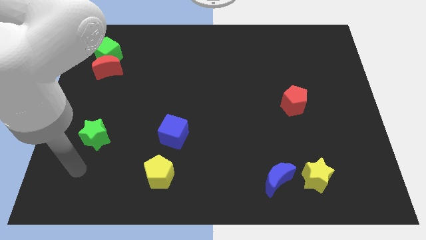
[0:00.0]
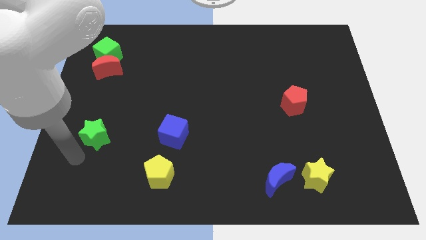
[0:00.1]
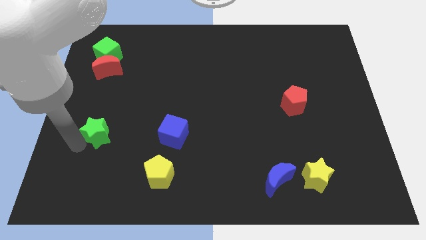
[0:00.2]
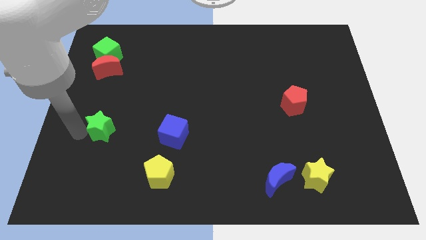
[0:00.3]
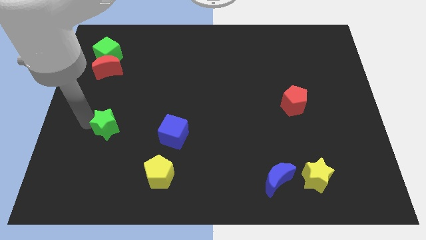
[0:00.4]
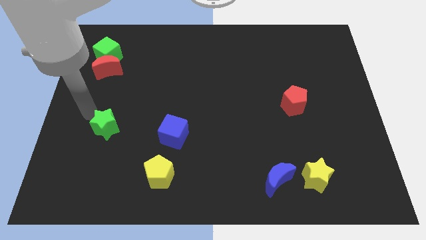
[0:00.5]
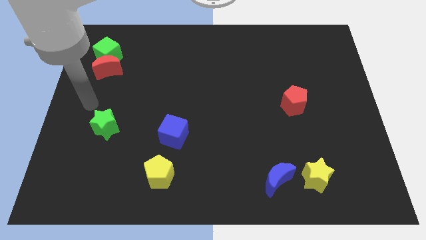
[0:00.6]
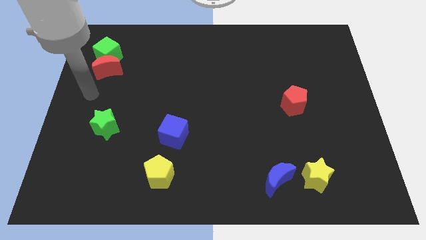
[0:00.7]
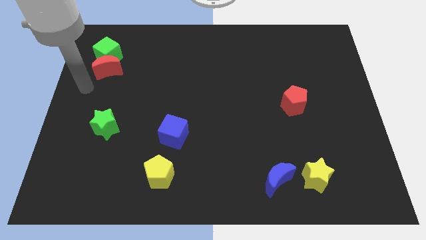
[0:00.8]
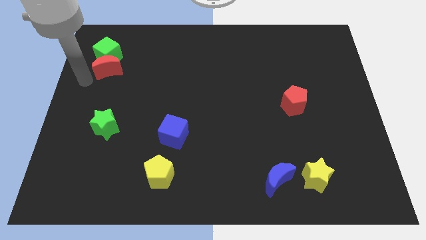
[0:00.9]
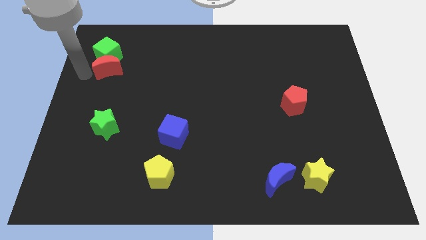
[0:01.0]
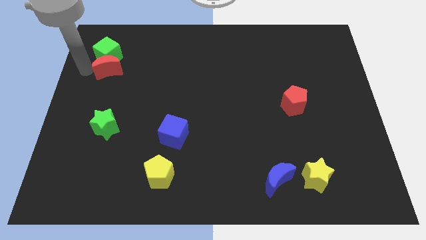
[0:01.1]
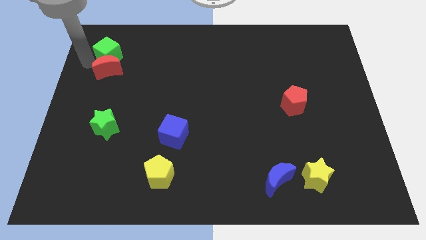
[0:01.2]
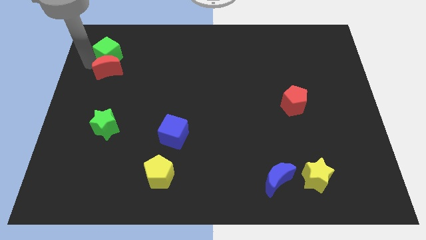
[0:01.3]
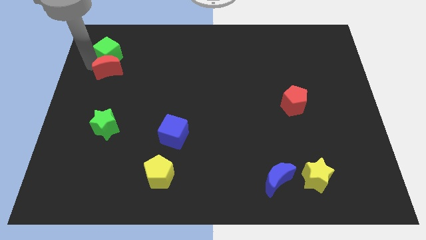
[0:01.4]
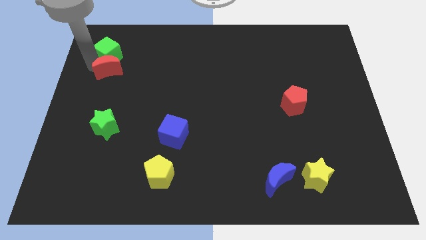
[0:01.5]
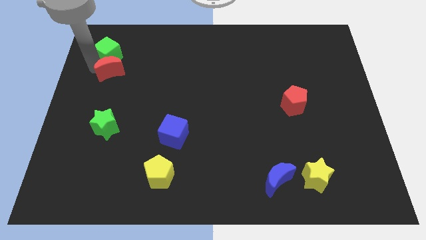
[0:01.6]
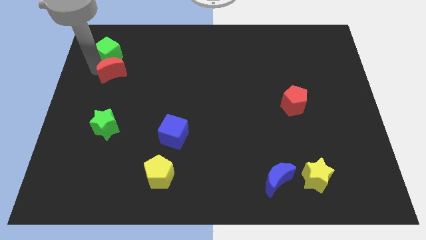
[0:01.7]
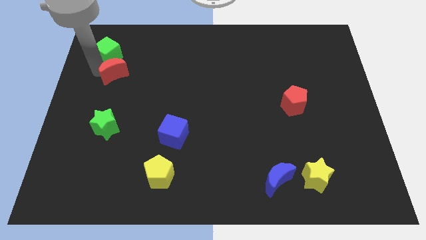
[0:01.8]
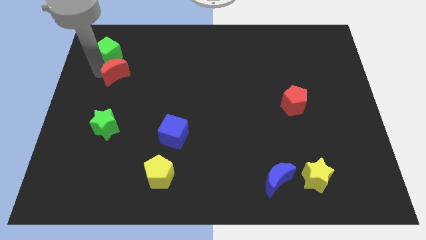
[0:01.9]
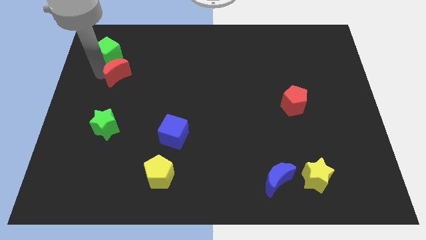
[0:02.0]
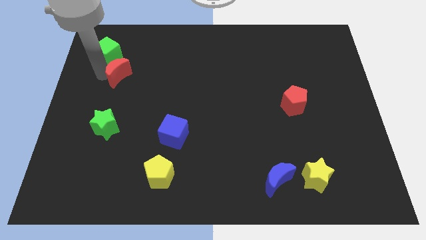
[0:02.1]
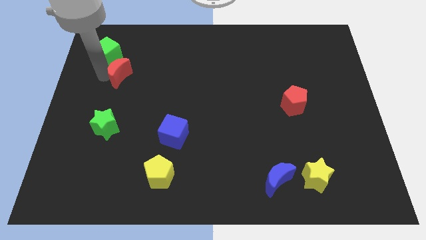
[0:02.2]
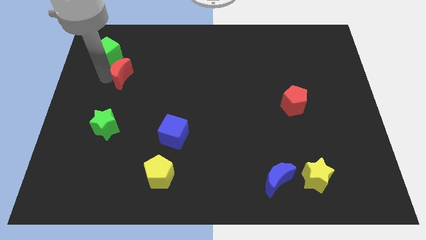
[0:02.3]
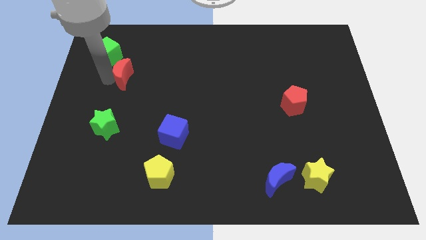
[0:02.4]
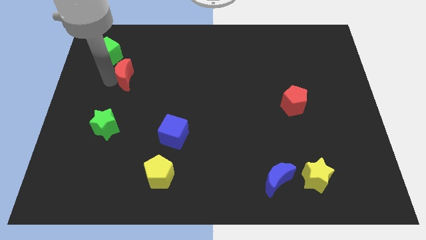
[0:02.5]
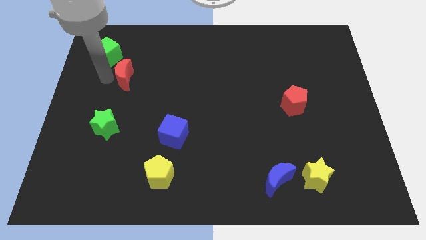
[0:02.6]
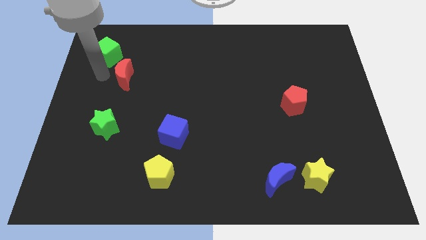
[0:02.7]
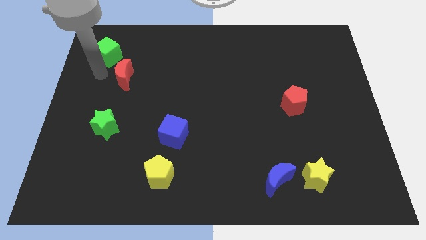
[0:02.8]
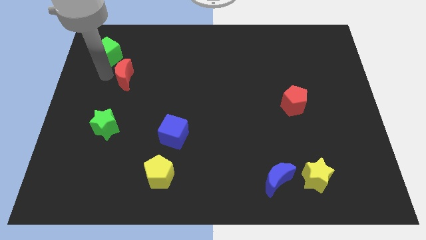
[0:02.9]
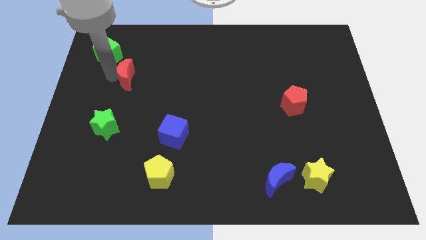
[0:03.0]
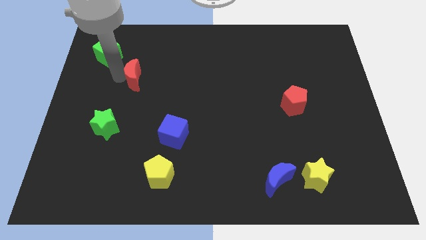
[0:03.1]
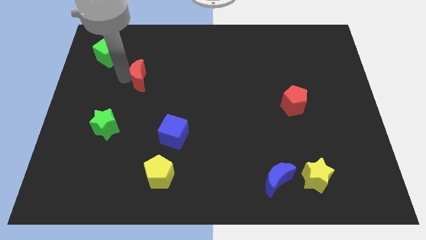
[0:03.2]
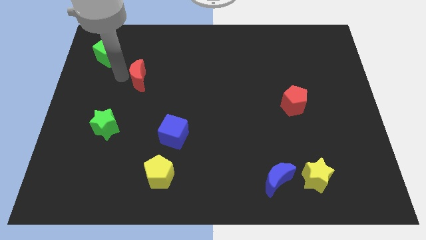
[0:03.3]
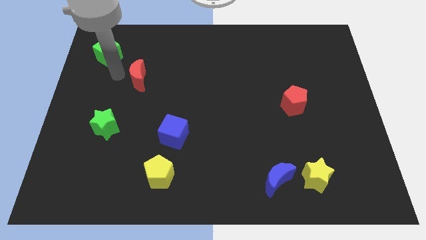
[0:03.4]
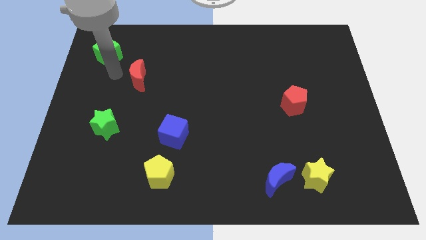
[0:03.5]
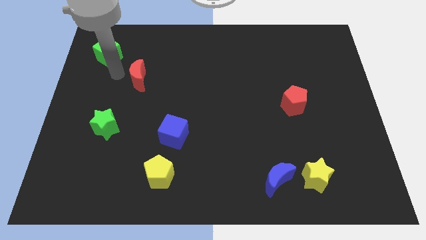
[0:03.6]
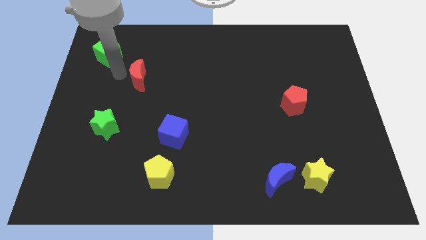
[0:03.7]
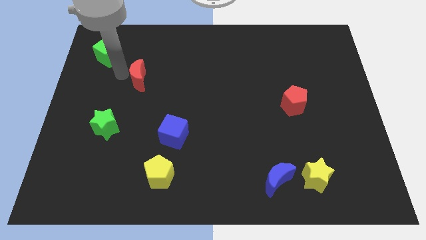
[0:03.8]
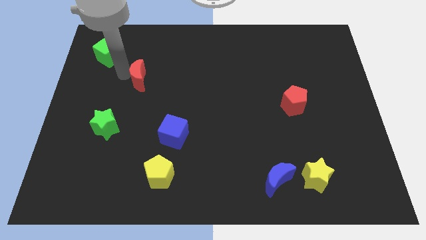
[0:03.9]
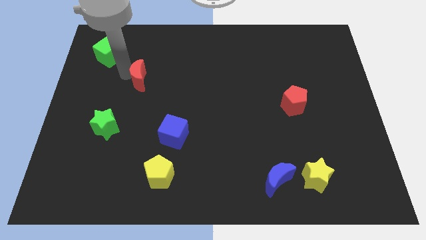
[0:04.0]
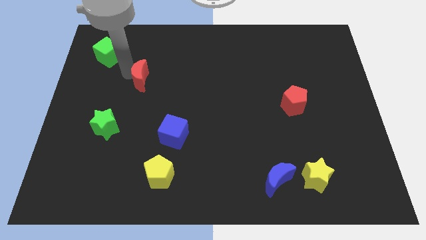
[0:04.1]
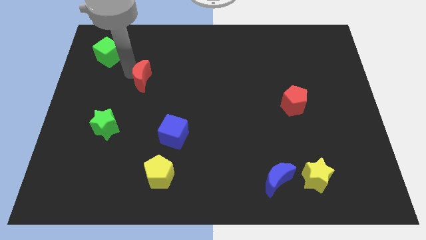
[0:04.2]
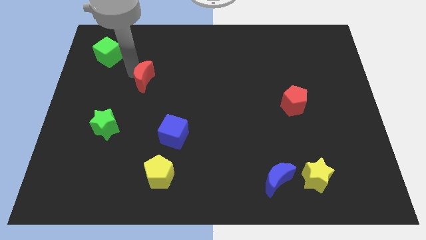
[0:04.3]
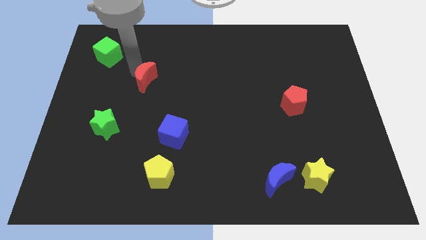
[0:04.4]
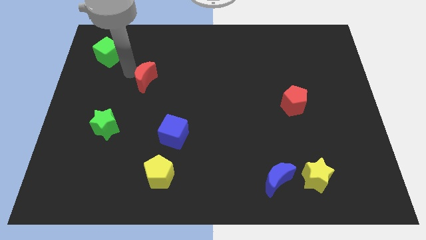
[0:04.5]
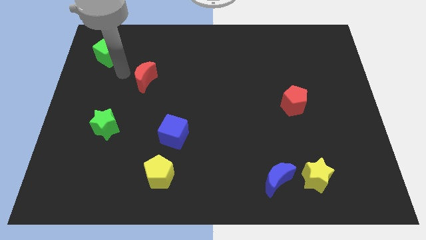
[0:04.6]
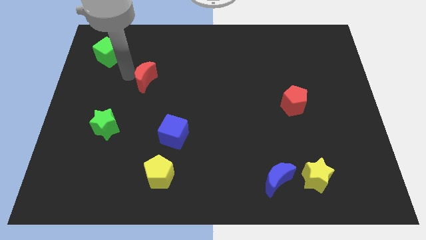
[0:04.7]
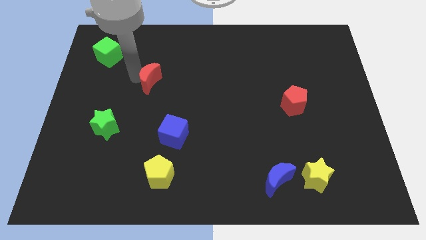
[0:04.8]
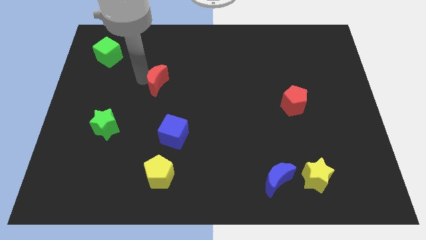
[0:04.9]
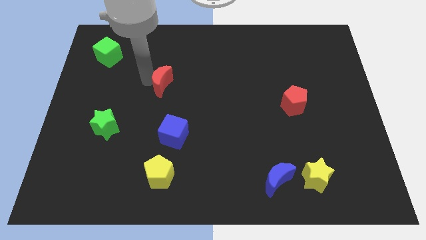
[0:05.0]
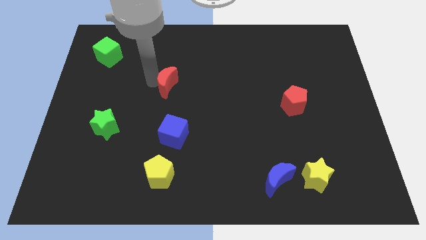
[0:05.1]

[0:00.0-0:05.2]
push the red moon to the center

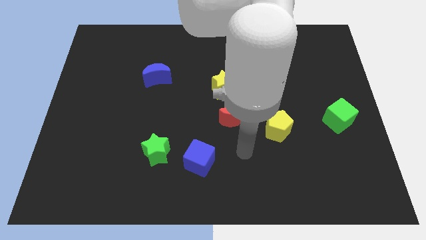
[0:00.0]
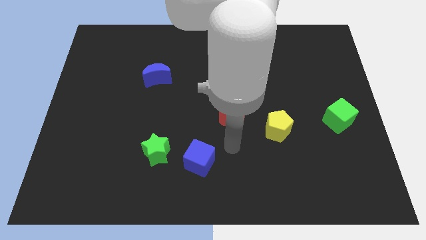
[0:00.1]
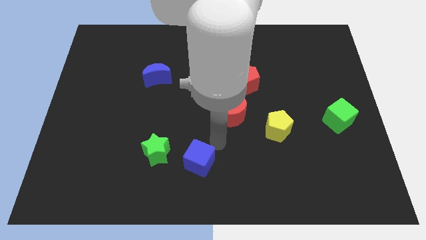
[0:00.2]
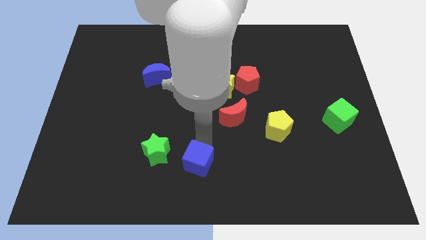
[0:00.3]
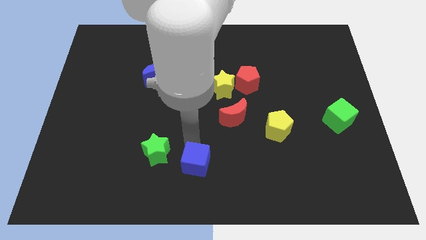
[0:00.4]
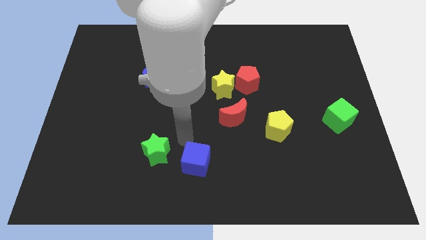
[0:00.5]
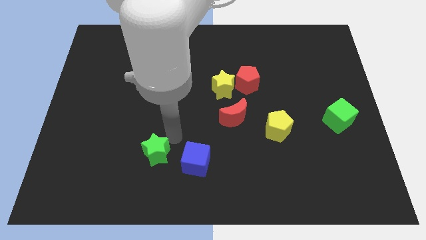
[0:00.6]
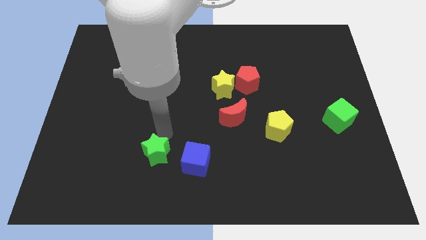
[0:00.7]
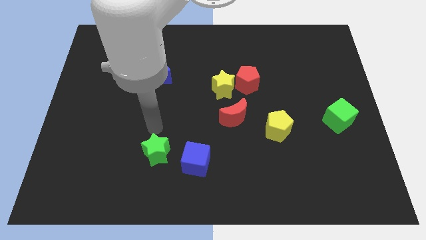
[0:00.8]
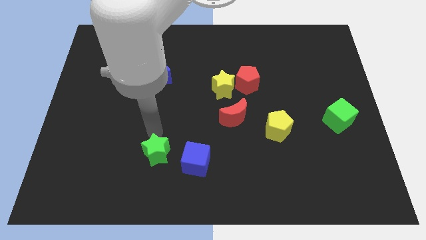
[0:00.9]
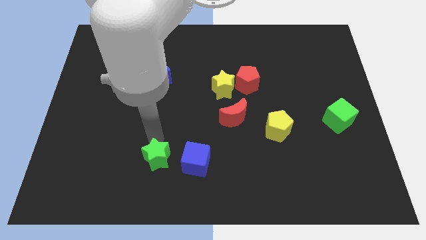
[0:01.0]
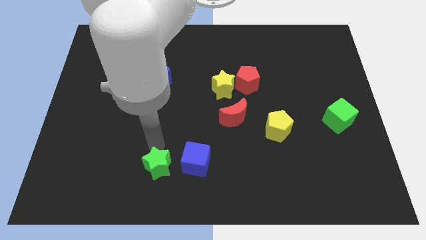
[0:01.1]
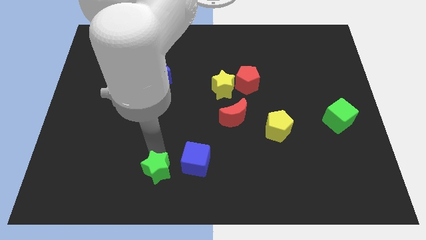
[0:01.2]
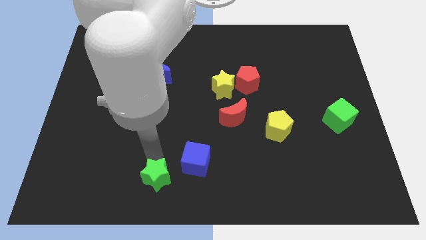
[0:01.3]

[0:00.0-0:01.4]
slide the green star to the bottom side
